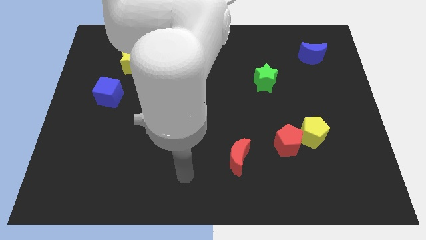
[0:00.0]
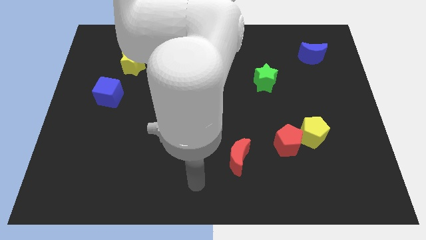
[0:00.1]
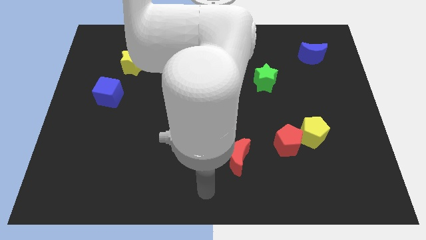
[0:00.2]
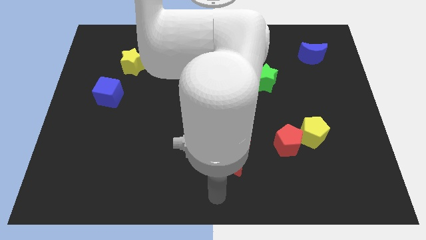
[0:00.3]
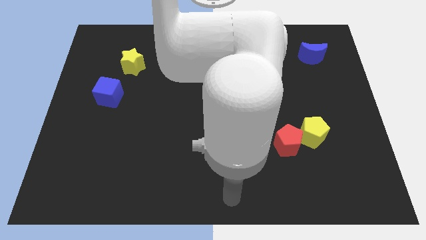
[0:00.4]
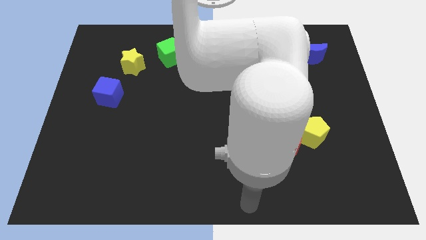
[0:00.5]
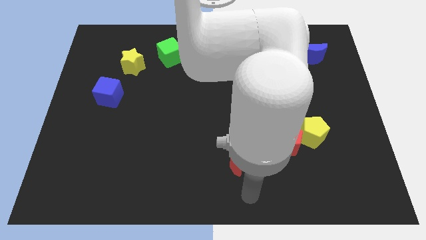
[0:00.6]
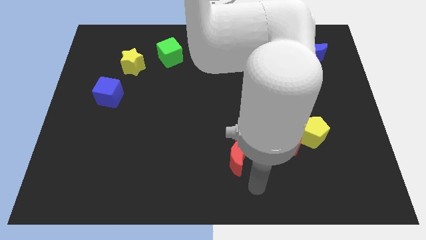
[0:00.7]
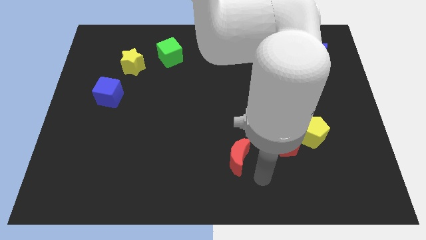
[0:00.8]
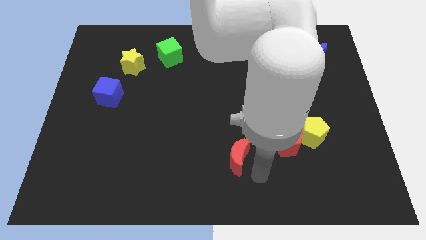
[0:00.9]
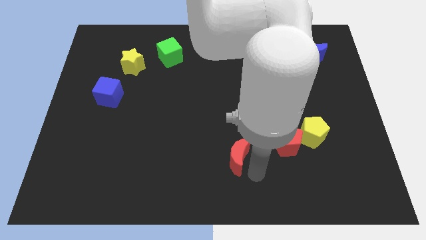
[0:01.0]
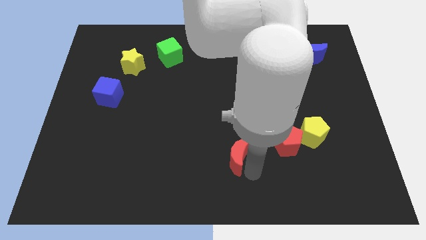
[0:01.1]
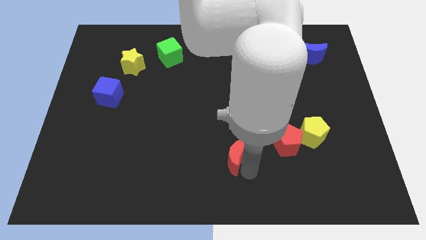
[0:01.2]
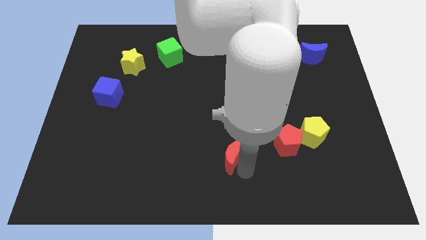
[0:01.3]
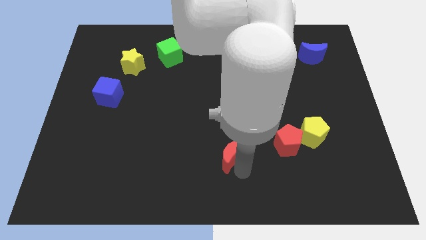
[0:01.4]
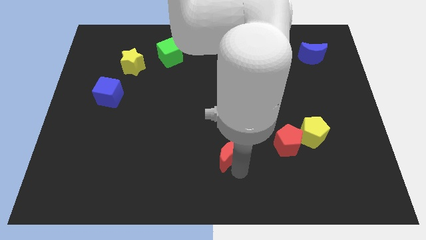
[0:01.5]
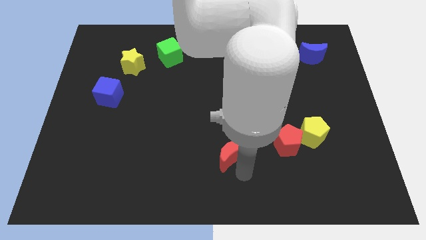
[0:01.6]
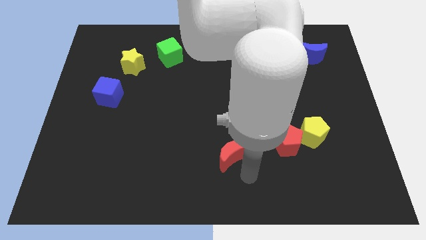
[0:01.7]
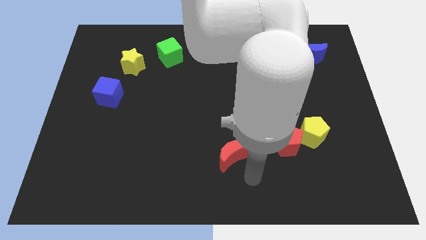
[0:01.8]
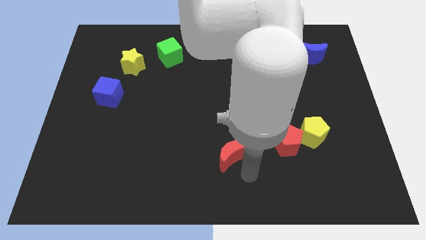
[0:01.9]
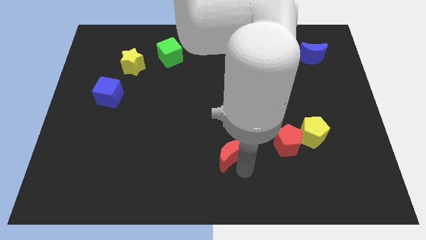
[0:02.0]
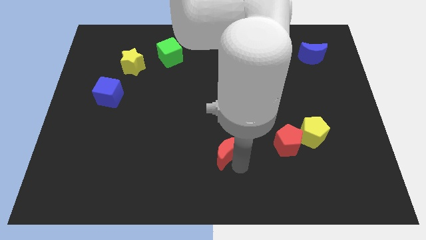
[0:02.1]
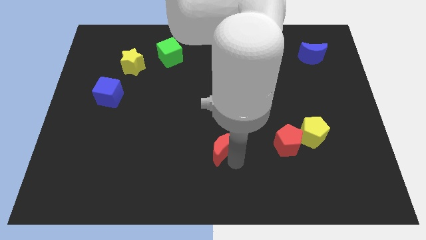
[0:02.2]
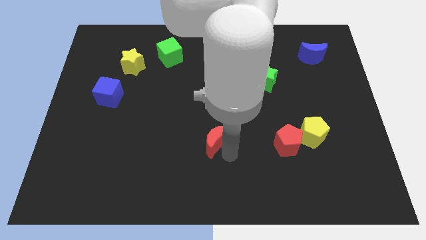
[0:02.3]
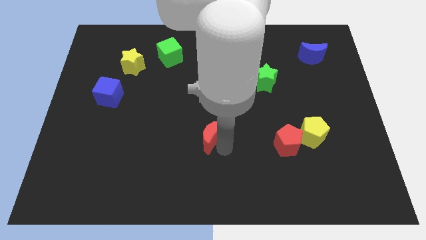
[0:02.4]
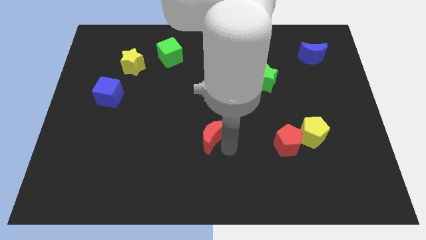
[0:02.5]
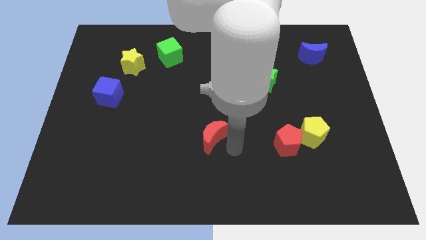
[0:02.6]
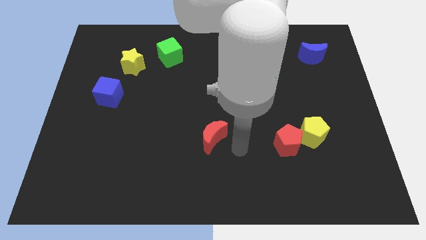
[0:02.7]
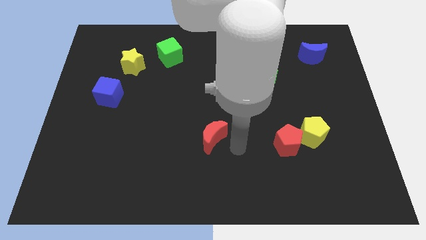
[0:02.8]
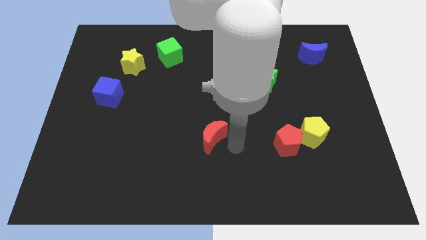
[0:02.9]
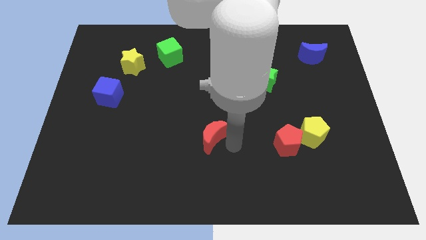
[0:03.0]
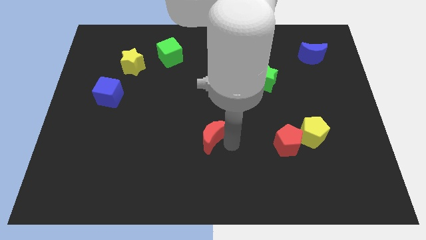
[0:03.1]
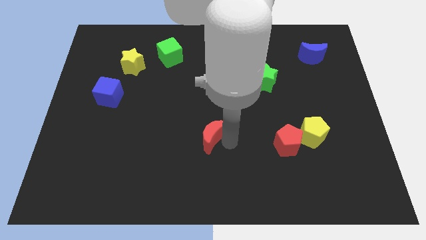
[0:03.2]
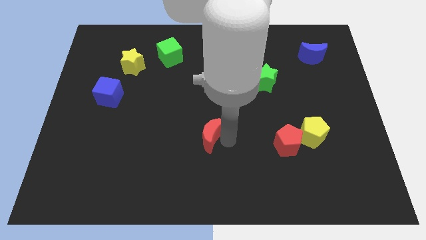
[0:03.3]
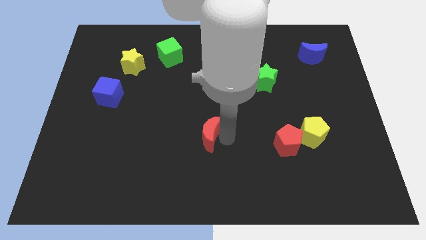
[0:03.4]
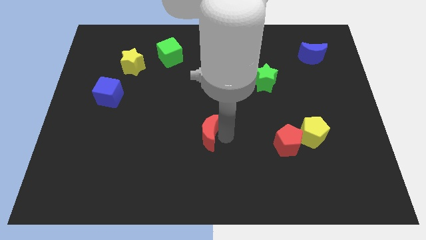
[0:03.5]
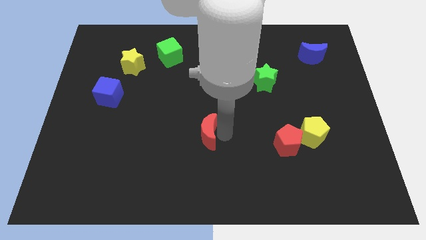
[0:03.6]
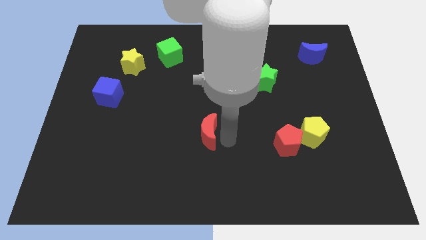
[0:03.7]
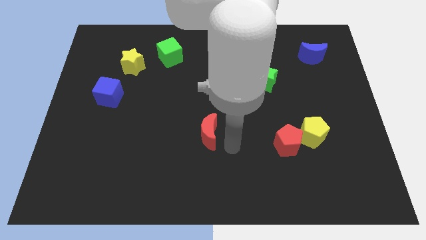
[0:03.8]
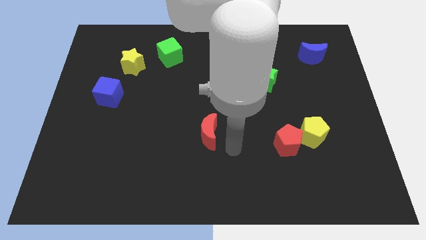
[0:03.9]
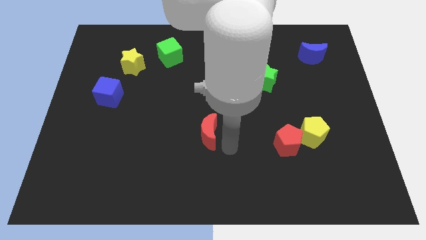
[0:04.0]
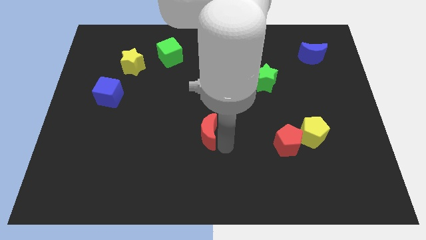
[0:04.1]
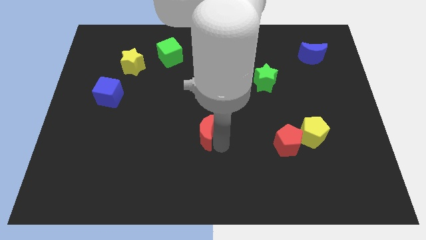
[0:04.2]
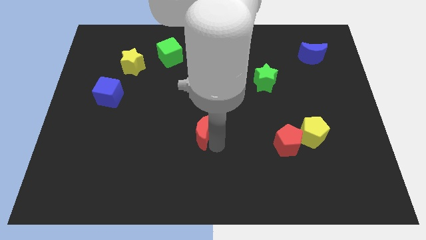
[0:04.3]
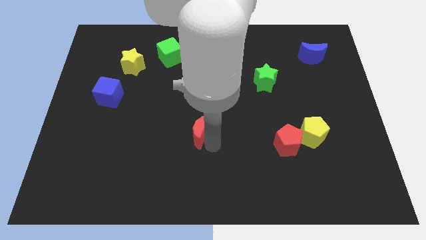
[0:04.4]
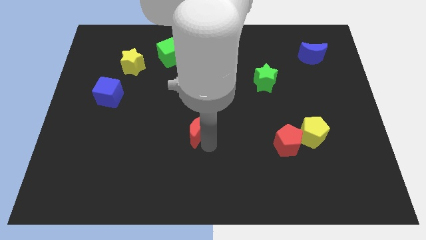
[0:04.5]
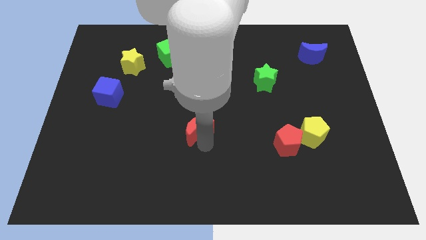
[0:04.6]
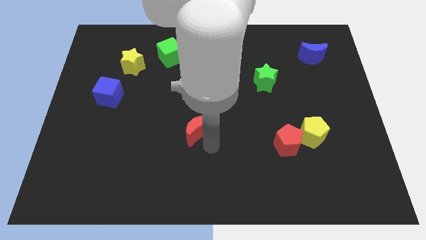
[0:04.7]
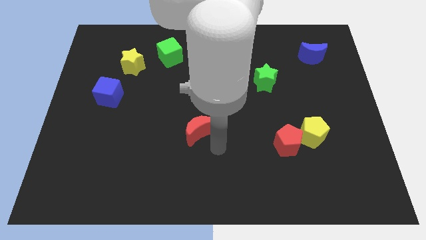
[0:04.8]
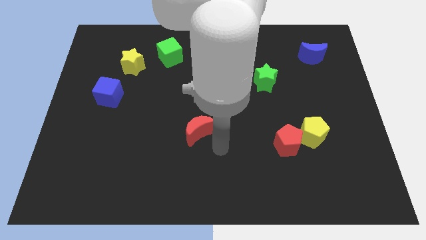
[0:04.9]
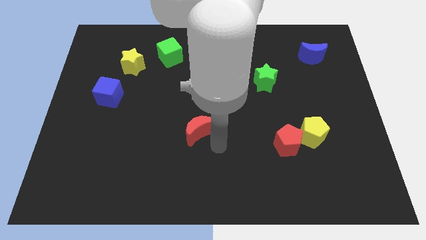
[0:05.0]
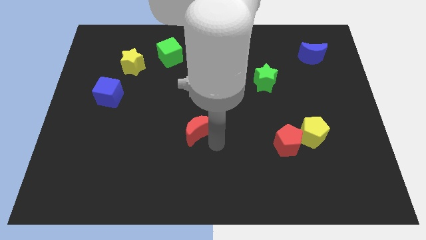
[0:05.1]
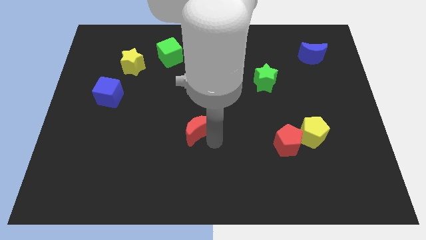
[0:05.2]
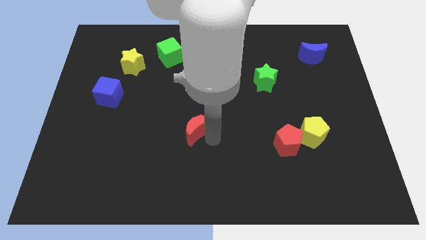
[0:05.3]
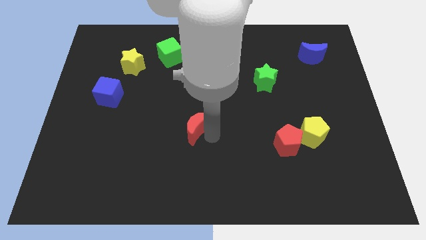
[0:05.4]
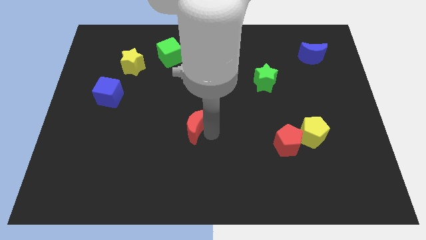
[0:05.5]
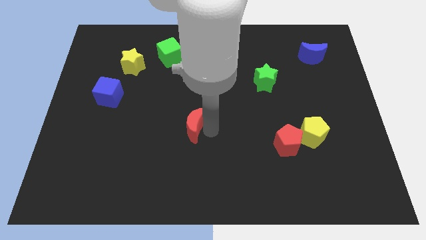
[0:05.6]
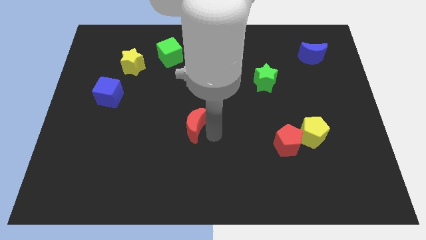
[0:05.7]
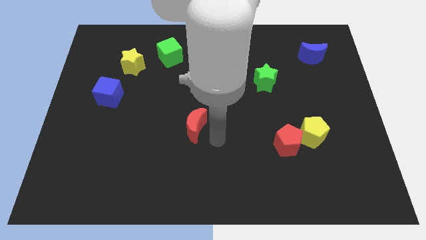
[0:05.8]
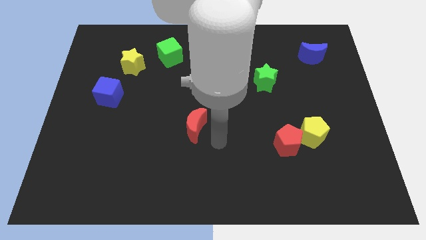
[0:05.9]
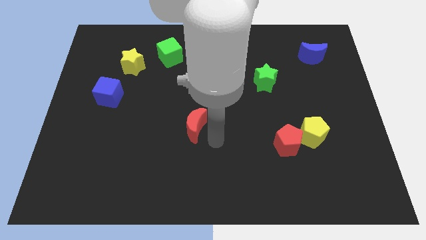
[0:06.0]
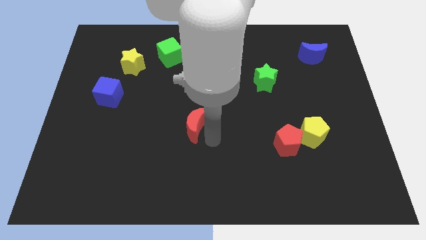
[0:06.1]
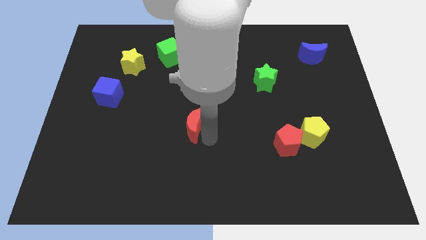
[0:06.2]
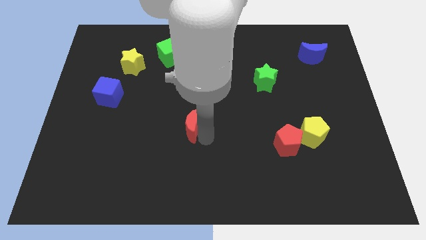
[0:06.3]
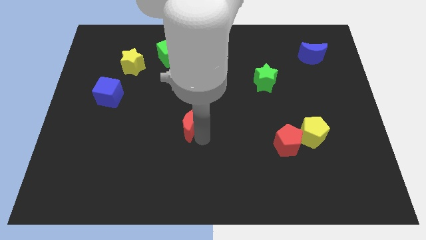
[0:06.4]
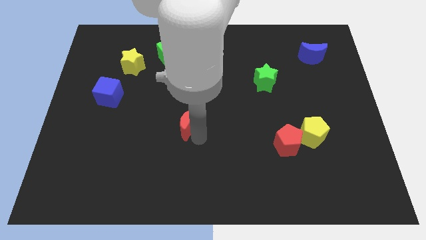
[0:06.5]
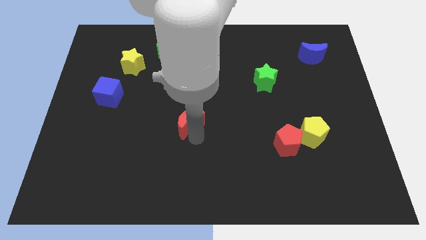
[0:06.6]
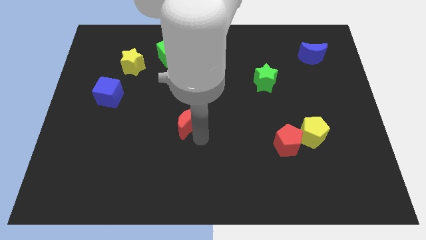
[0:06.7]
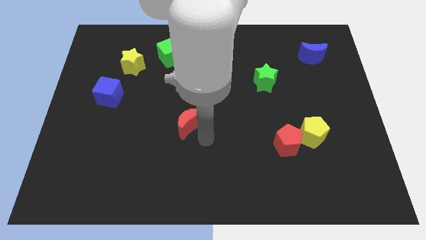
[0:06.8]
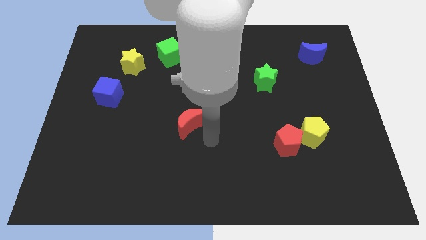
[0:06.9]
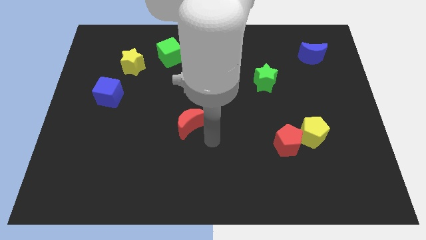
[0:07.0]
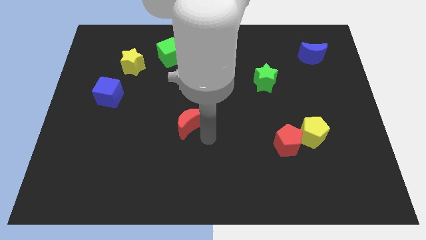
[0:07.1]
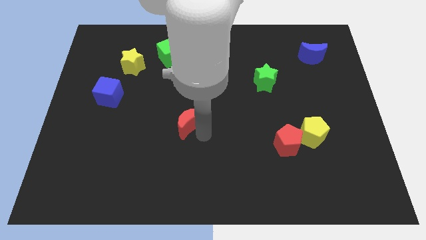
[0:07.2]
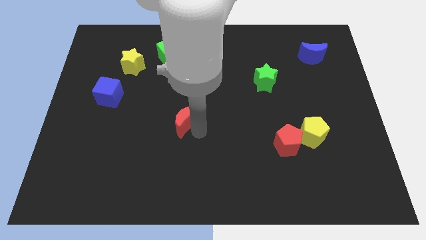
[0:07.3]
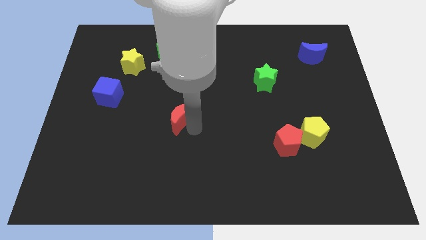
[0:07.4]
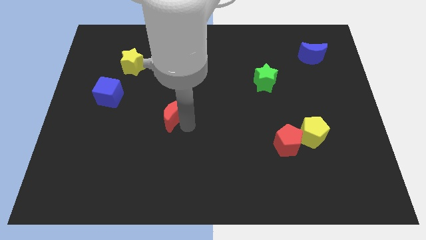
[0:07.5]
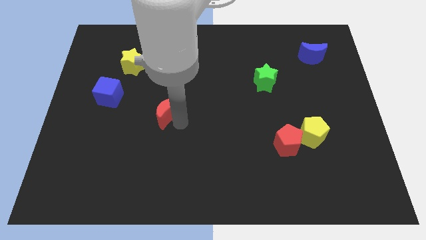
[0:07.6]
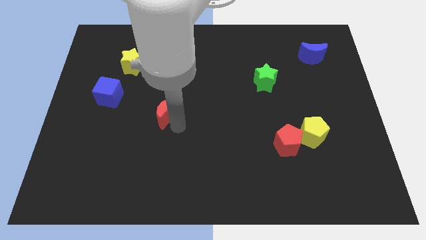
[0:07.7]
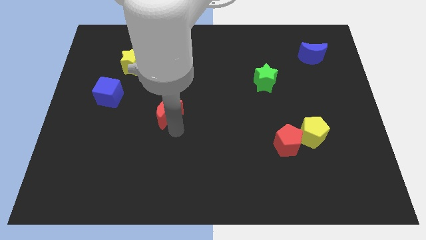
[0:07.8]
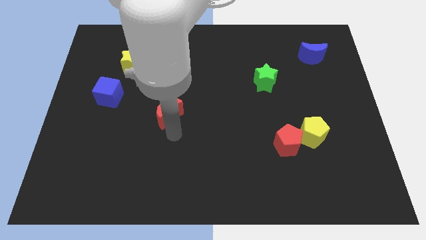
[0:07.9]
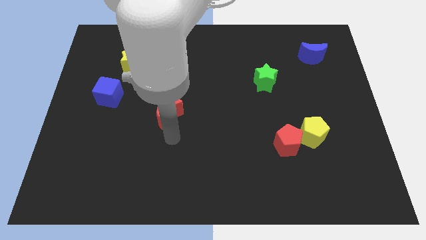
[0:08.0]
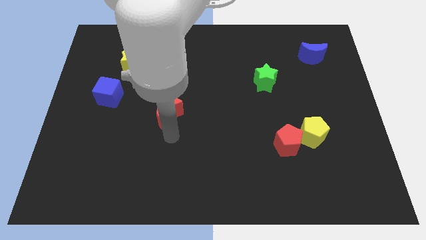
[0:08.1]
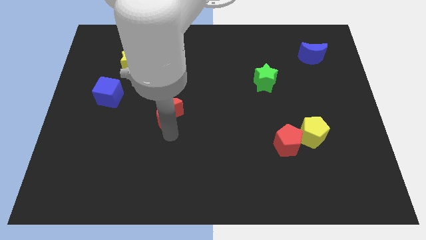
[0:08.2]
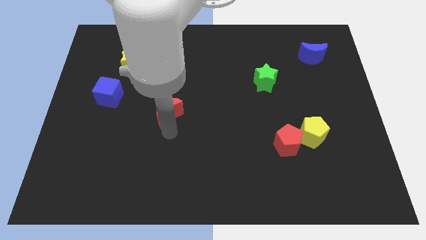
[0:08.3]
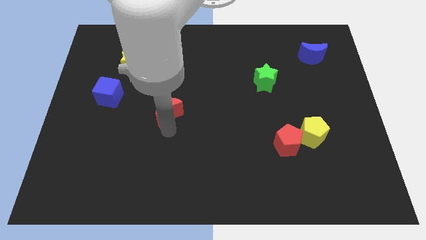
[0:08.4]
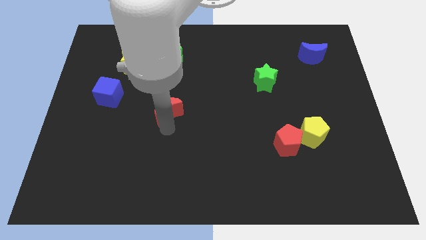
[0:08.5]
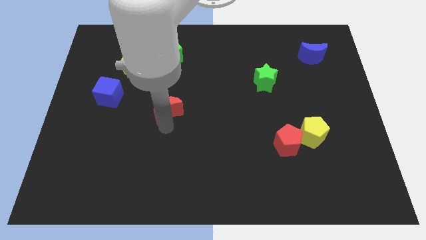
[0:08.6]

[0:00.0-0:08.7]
move the red moon diagonally up and left

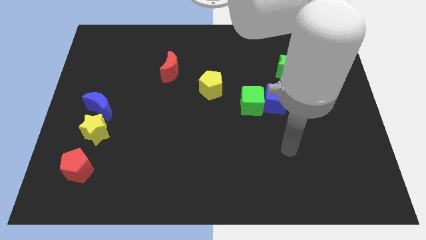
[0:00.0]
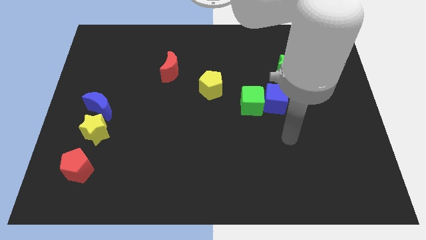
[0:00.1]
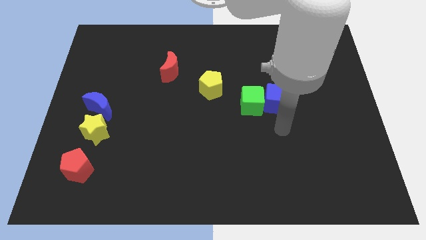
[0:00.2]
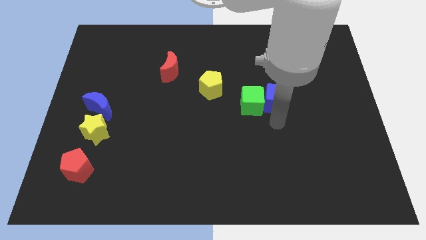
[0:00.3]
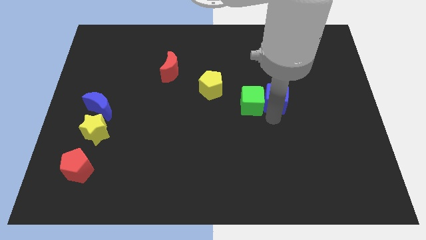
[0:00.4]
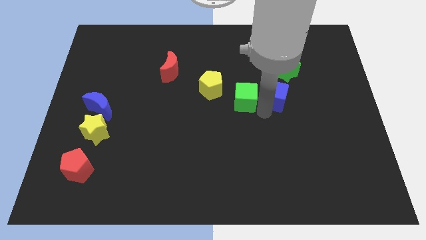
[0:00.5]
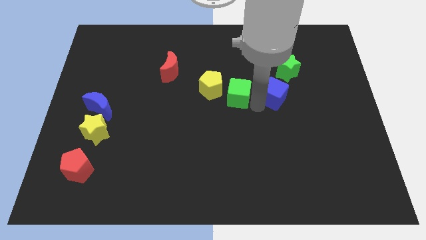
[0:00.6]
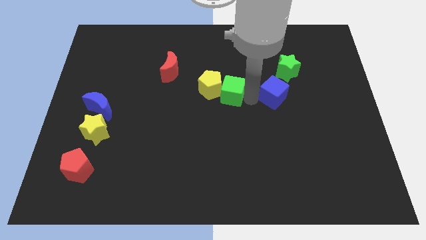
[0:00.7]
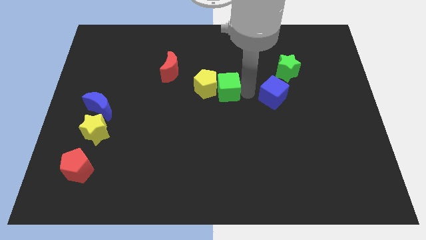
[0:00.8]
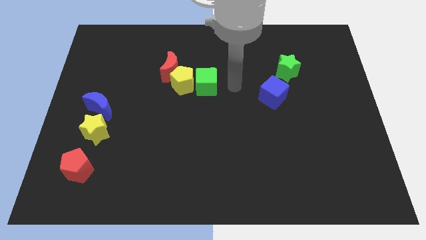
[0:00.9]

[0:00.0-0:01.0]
move the yellow pentagon a bit left
